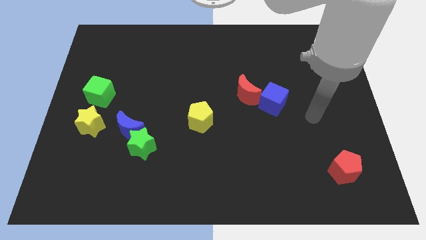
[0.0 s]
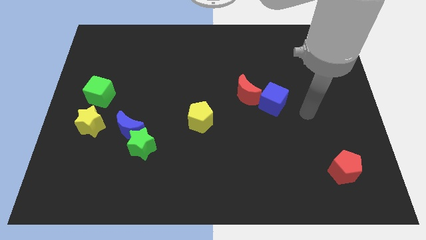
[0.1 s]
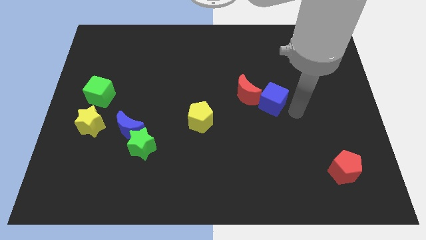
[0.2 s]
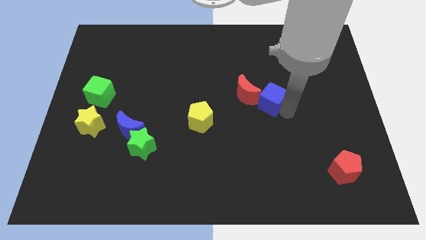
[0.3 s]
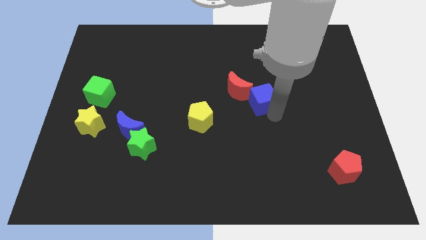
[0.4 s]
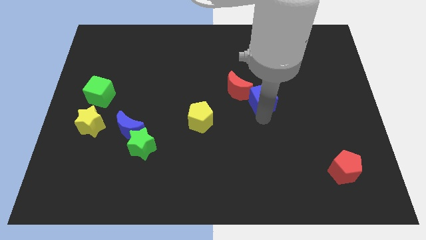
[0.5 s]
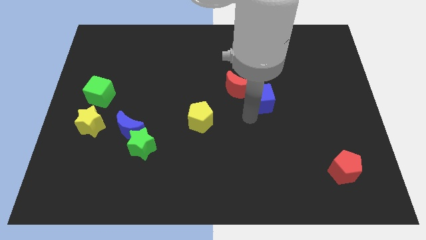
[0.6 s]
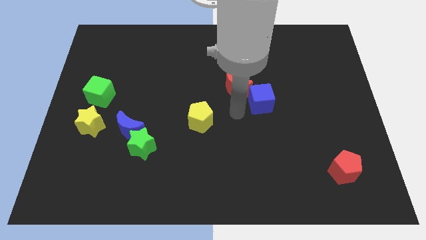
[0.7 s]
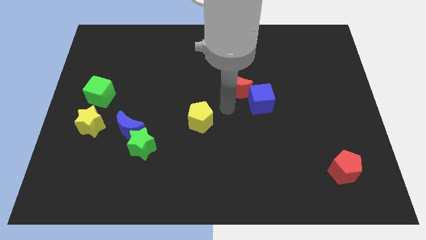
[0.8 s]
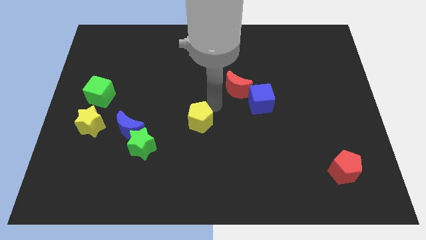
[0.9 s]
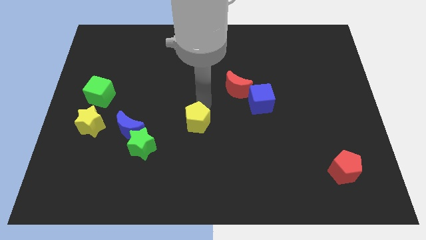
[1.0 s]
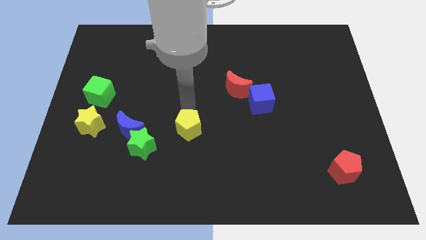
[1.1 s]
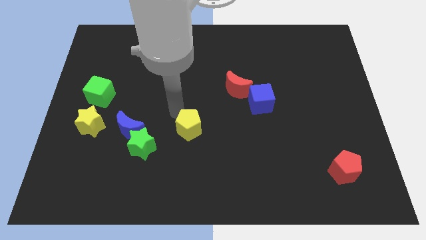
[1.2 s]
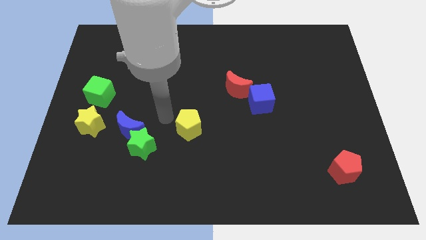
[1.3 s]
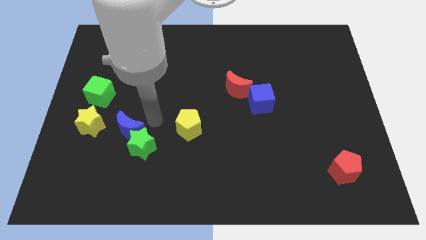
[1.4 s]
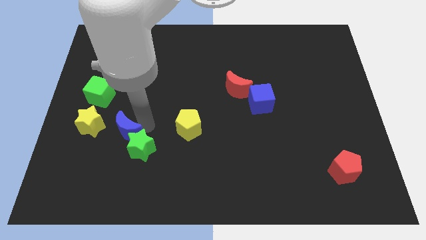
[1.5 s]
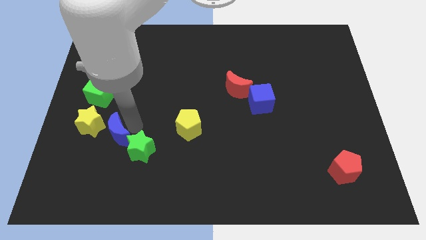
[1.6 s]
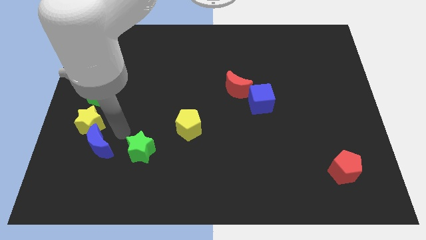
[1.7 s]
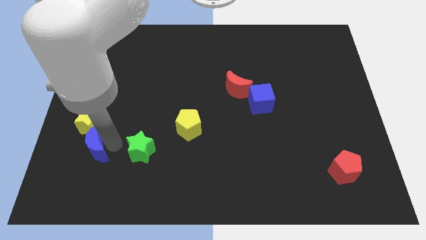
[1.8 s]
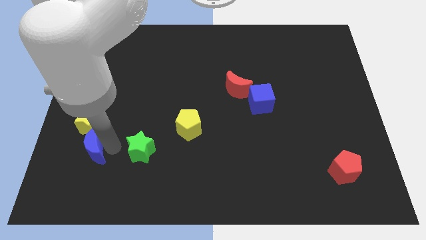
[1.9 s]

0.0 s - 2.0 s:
separate the green star from the blue moon

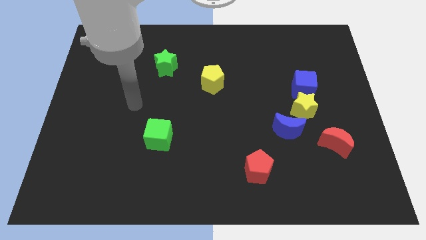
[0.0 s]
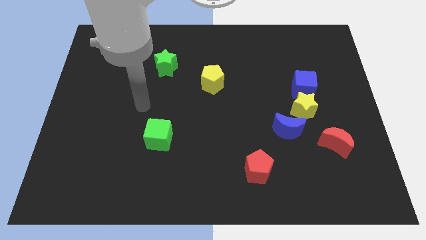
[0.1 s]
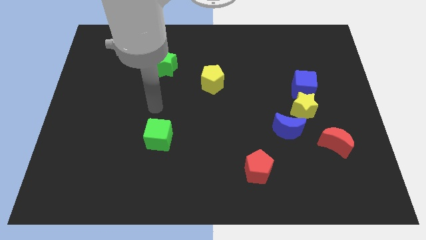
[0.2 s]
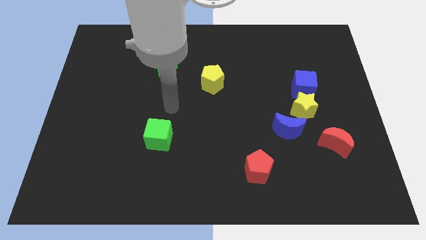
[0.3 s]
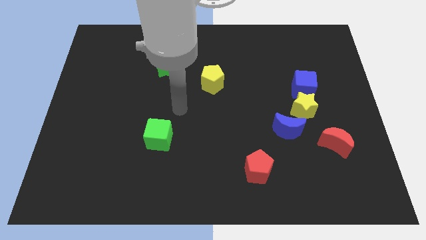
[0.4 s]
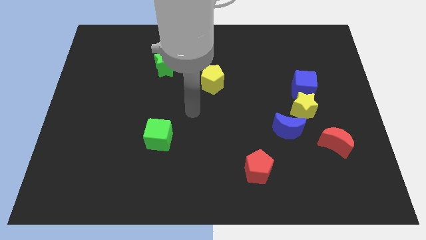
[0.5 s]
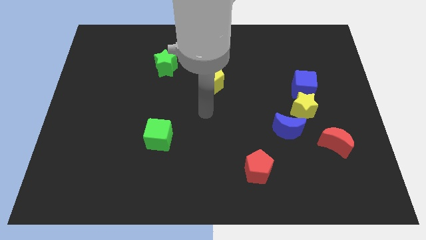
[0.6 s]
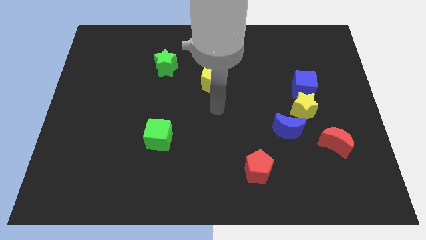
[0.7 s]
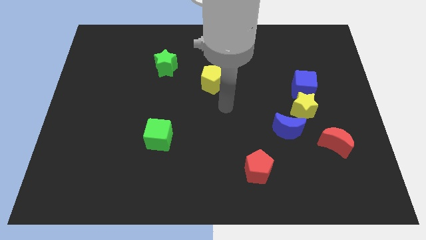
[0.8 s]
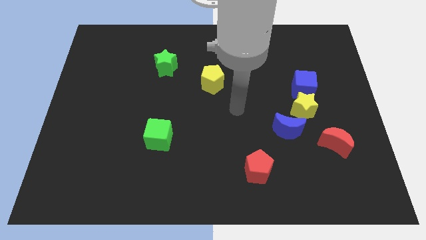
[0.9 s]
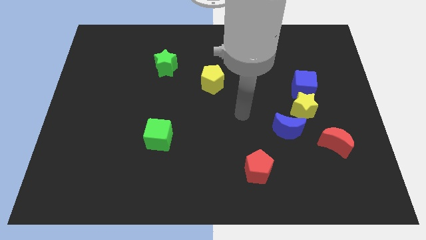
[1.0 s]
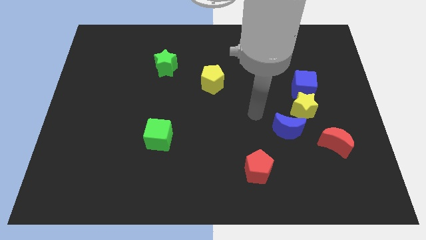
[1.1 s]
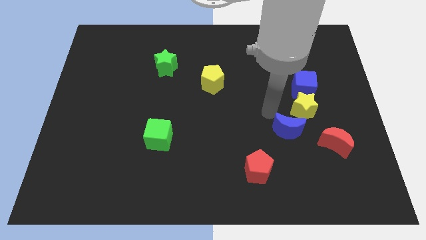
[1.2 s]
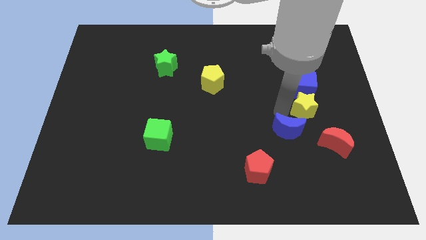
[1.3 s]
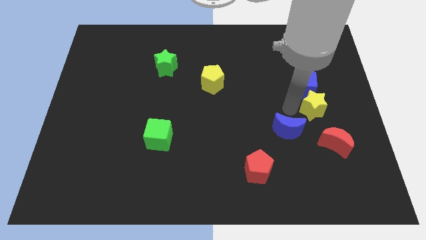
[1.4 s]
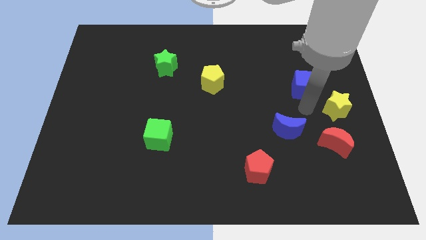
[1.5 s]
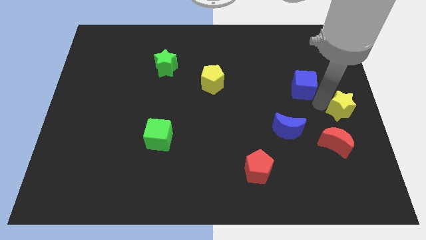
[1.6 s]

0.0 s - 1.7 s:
move the blue cube away from the yellow star

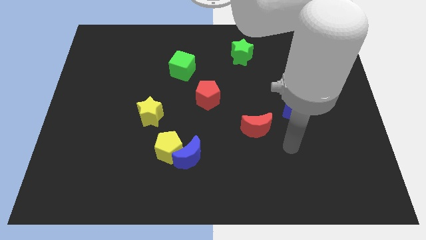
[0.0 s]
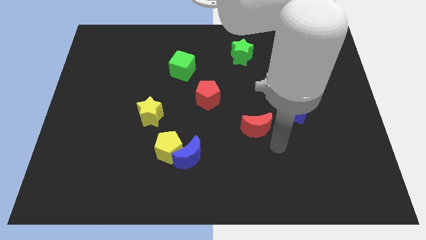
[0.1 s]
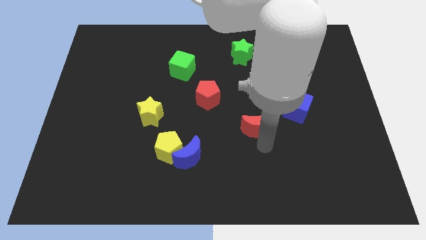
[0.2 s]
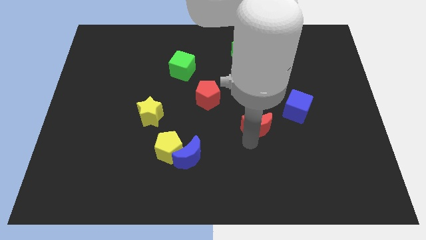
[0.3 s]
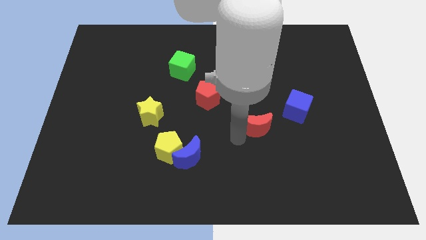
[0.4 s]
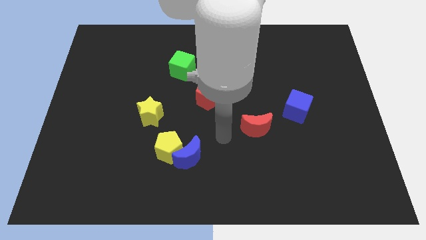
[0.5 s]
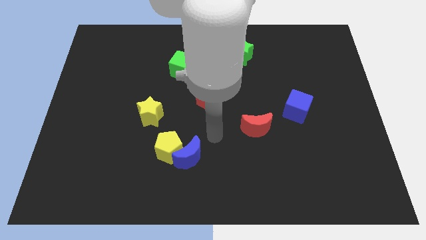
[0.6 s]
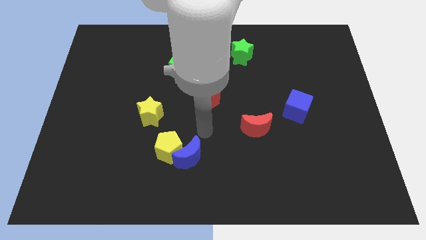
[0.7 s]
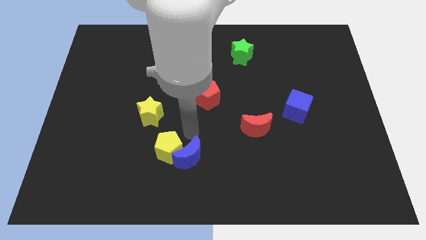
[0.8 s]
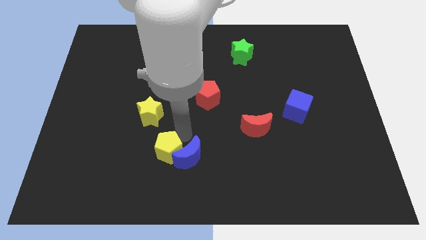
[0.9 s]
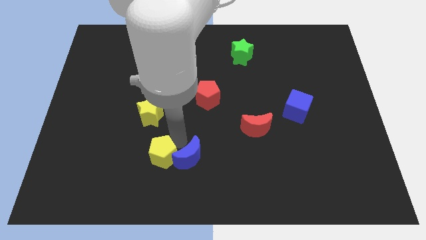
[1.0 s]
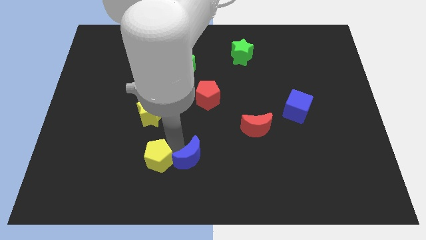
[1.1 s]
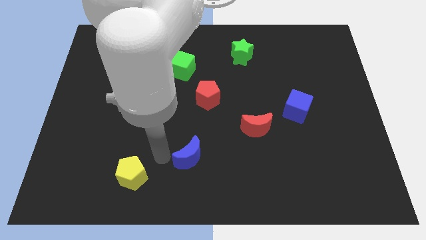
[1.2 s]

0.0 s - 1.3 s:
move the blue moon away from the yellow pentagon

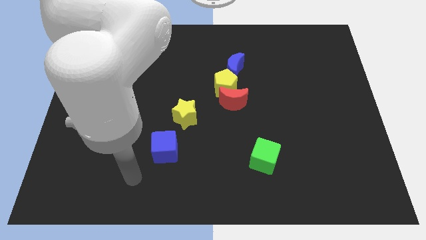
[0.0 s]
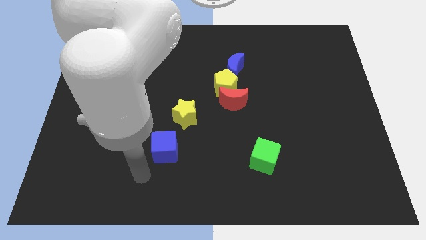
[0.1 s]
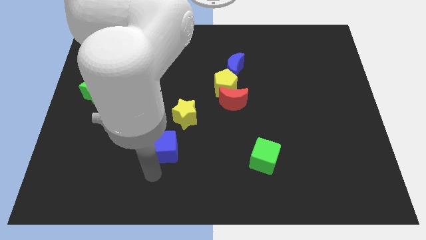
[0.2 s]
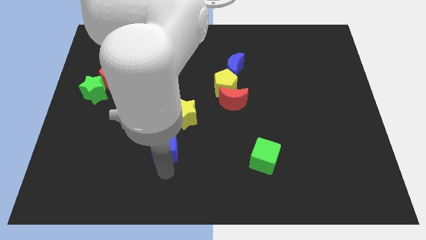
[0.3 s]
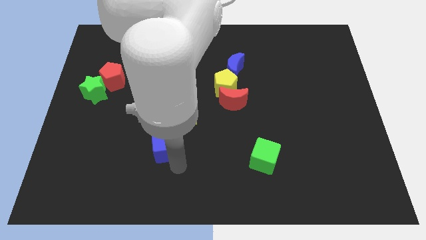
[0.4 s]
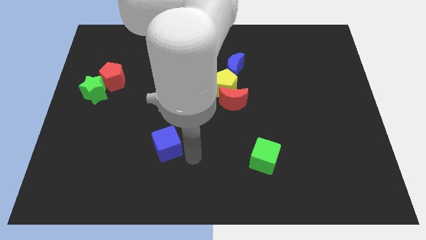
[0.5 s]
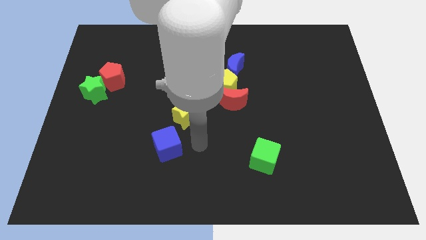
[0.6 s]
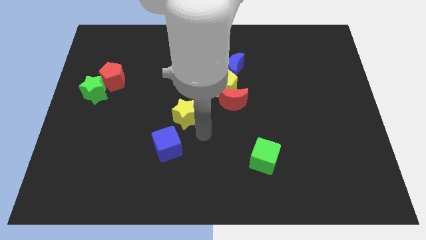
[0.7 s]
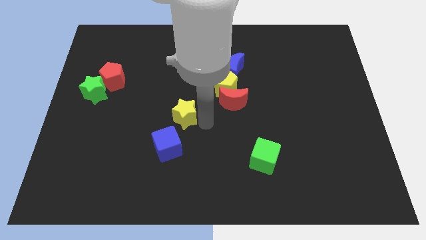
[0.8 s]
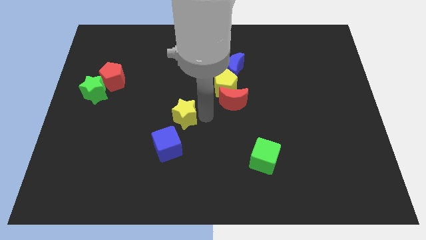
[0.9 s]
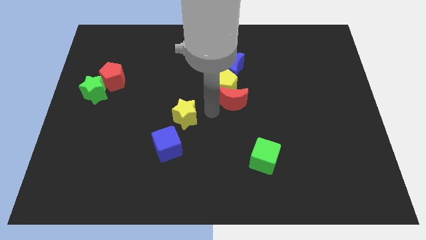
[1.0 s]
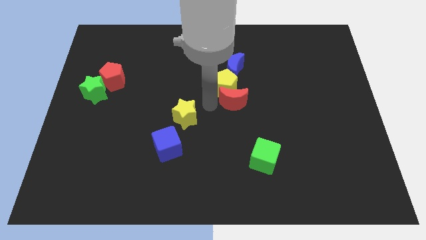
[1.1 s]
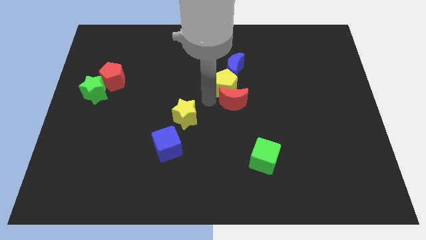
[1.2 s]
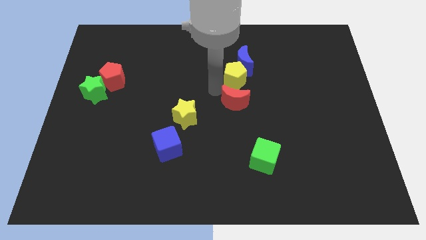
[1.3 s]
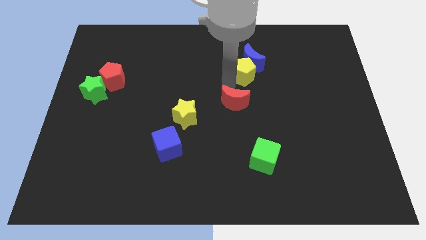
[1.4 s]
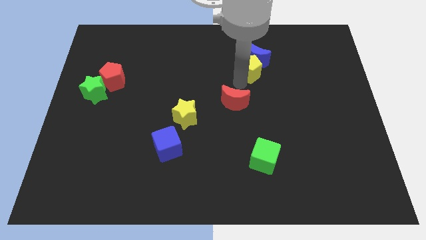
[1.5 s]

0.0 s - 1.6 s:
move the red moon away from the yellow pentagon

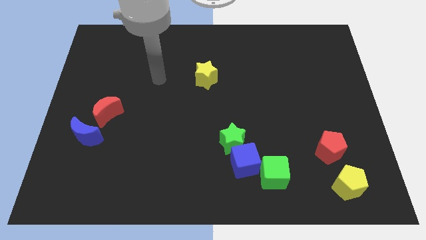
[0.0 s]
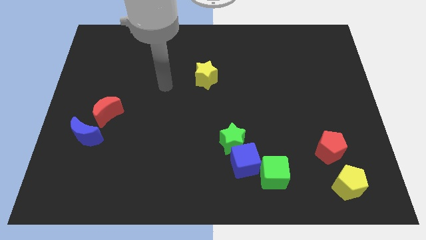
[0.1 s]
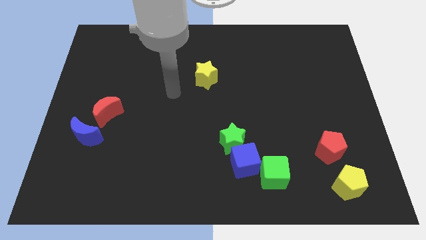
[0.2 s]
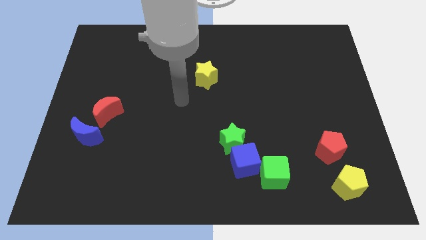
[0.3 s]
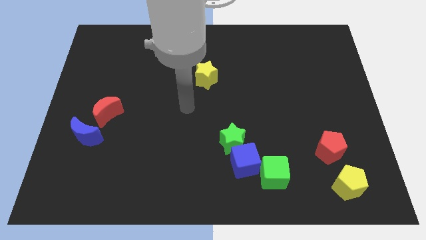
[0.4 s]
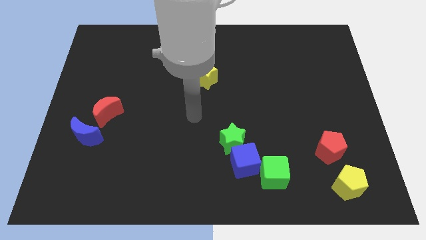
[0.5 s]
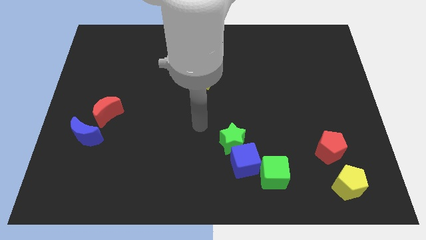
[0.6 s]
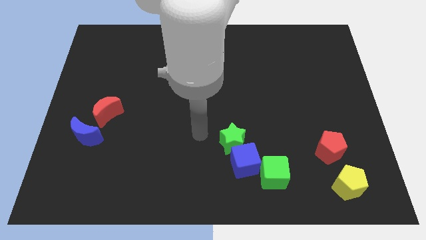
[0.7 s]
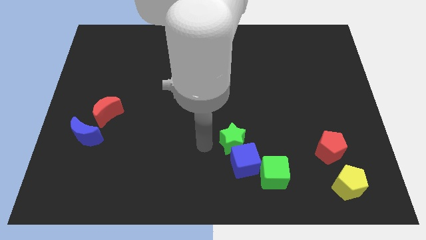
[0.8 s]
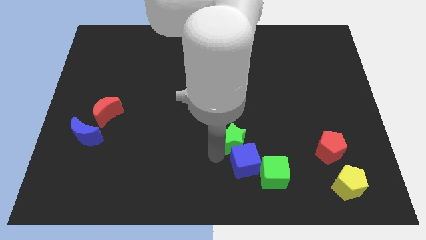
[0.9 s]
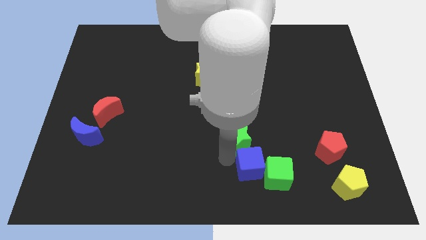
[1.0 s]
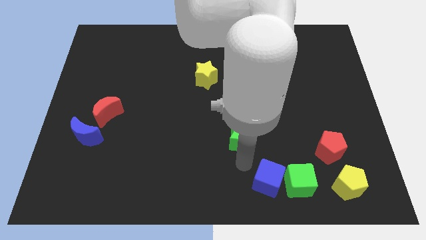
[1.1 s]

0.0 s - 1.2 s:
separate the green star from the blue cube

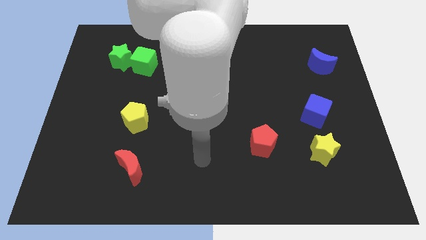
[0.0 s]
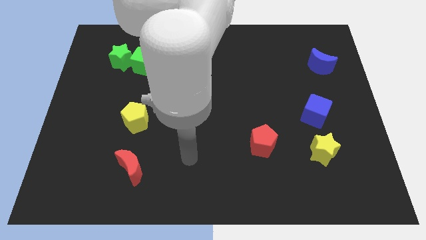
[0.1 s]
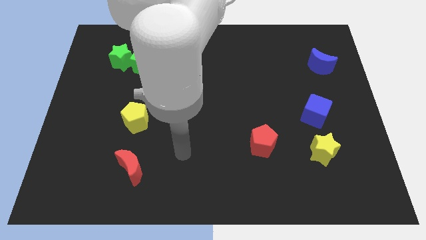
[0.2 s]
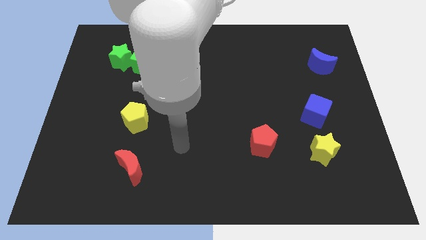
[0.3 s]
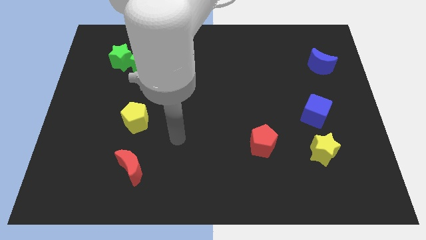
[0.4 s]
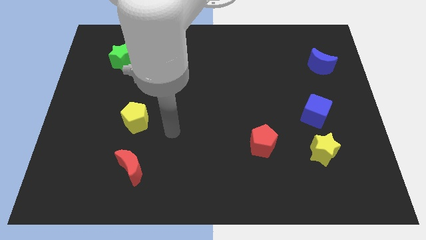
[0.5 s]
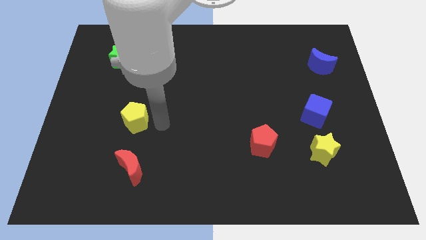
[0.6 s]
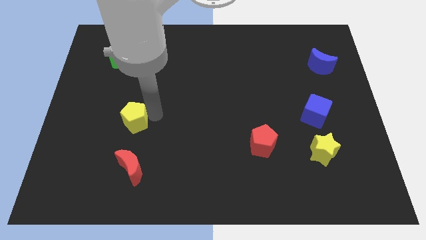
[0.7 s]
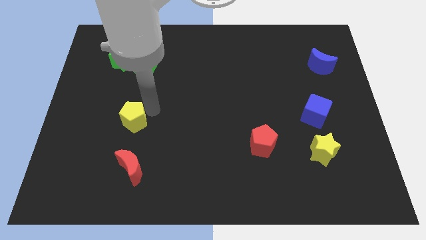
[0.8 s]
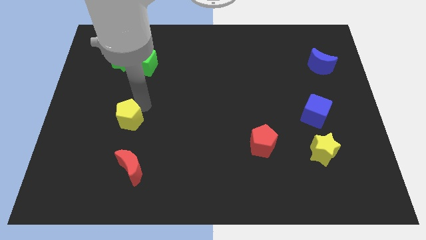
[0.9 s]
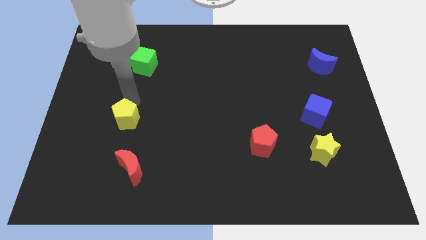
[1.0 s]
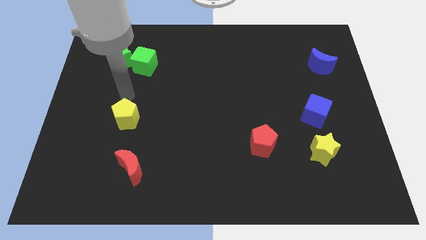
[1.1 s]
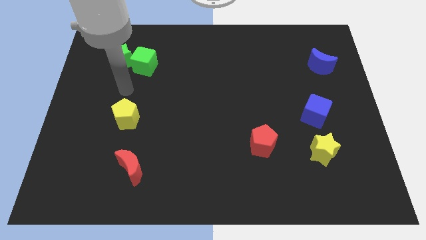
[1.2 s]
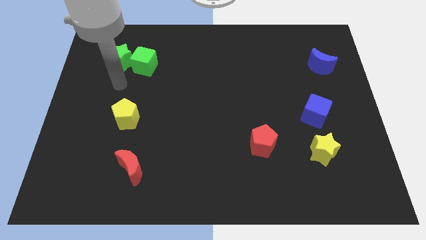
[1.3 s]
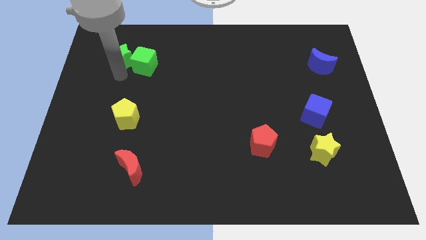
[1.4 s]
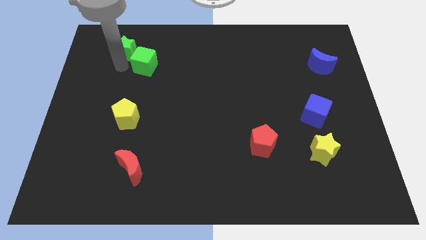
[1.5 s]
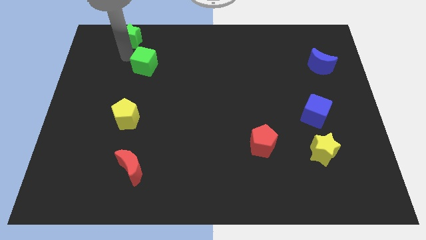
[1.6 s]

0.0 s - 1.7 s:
move the green cube away from the green star
